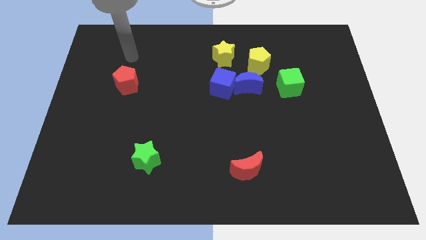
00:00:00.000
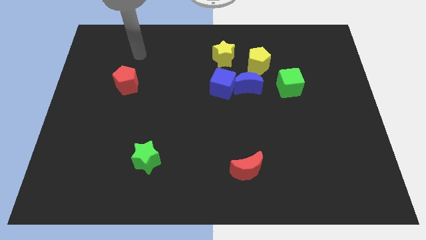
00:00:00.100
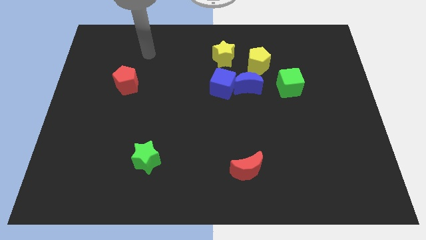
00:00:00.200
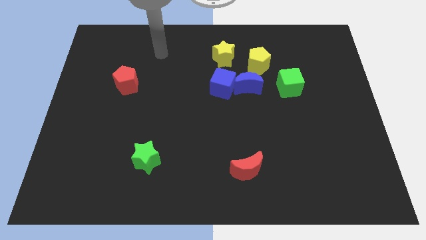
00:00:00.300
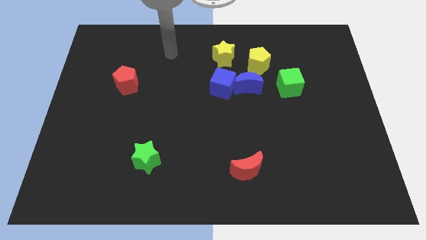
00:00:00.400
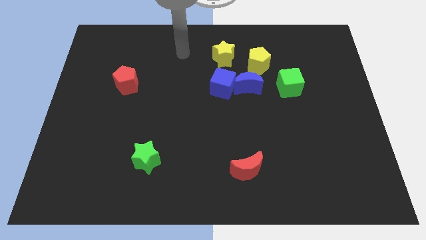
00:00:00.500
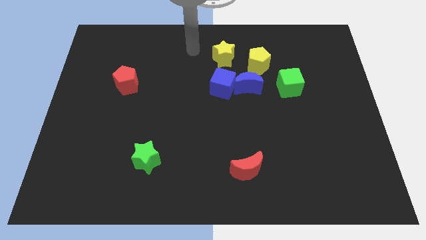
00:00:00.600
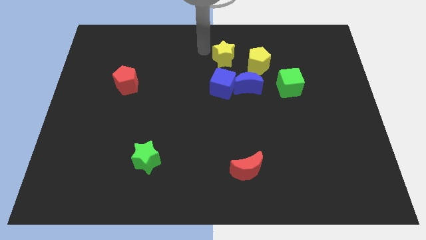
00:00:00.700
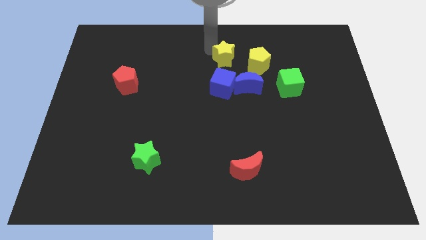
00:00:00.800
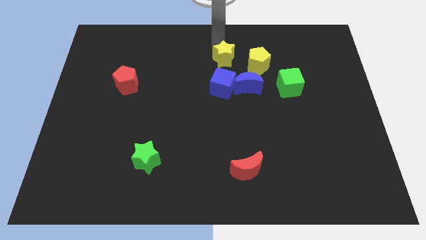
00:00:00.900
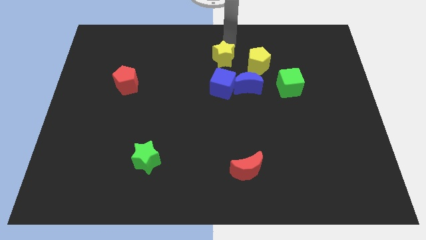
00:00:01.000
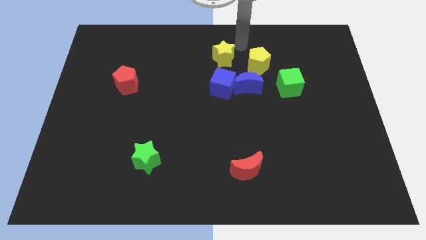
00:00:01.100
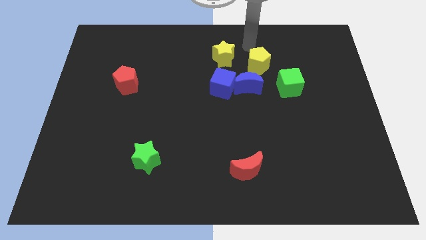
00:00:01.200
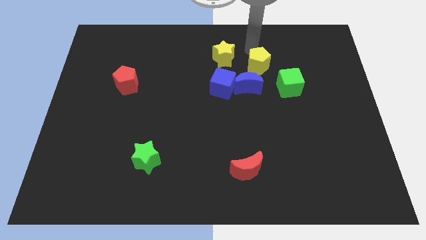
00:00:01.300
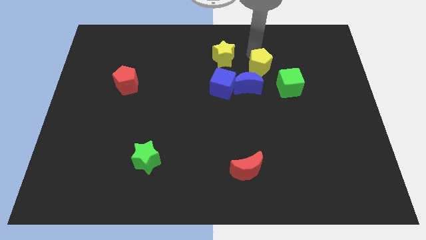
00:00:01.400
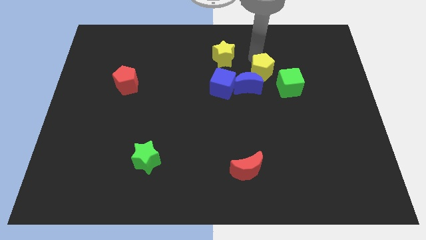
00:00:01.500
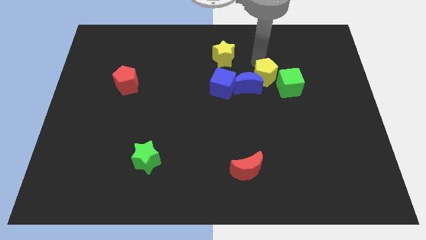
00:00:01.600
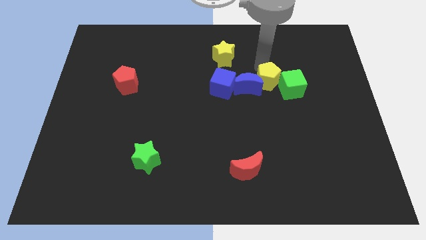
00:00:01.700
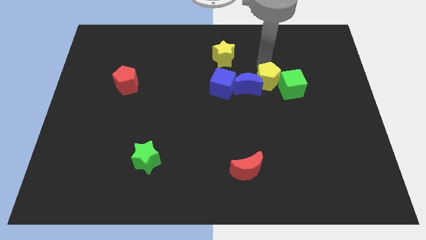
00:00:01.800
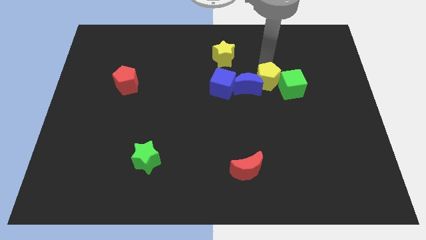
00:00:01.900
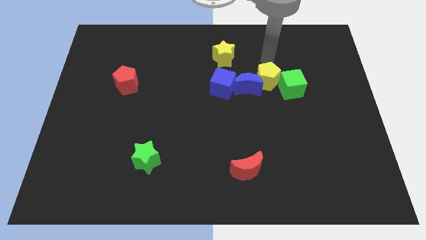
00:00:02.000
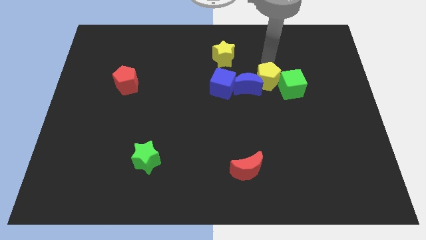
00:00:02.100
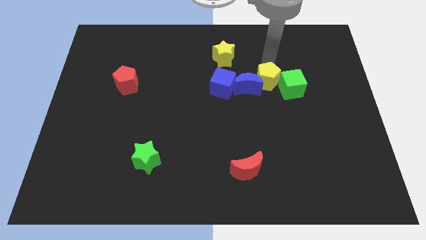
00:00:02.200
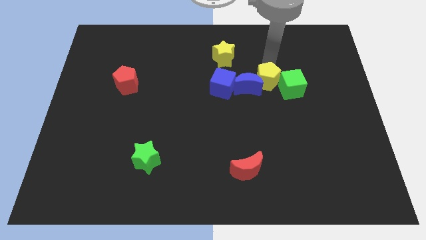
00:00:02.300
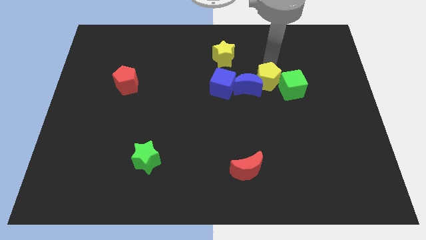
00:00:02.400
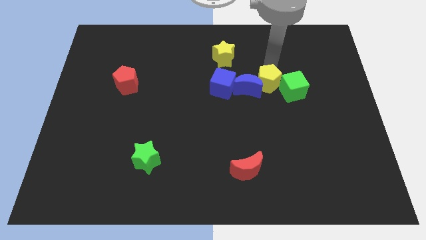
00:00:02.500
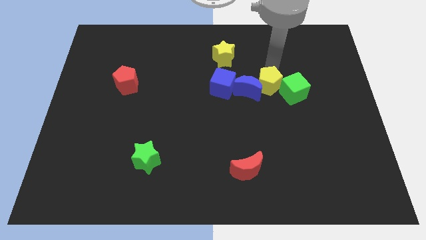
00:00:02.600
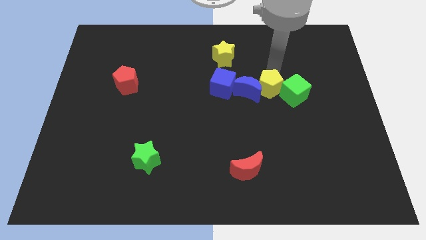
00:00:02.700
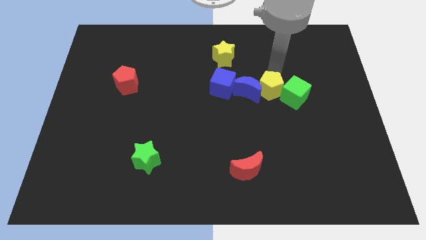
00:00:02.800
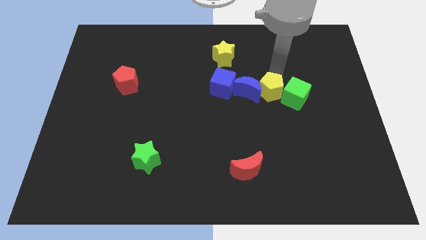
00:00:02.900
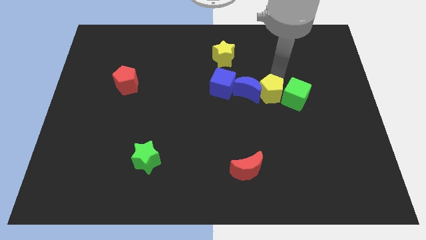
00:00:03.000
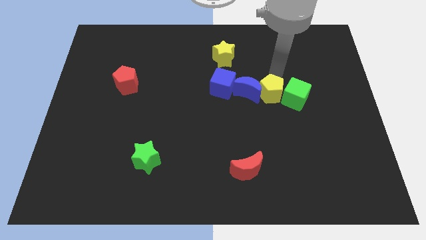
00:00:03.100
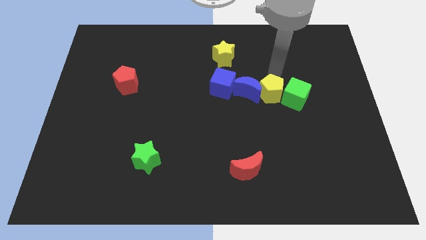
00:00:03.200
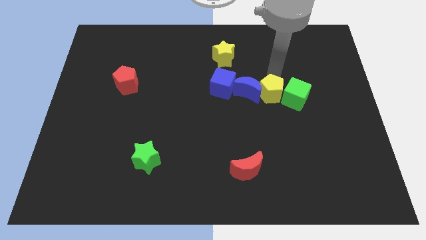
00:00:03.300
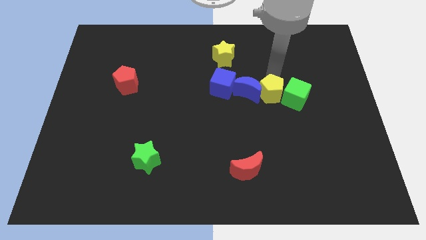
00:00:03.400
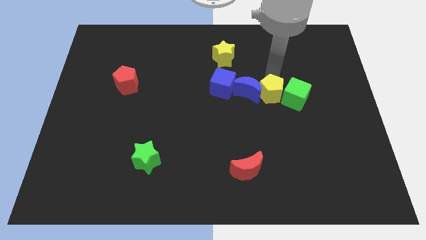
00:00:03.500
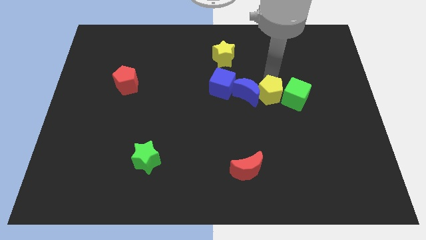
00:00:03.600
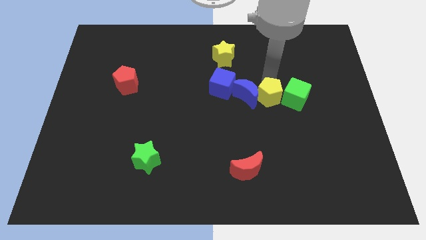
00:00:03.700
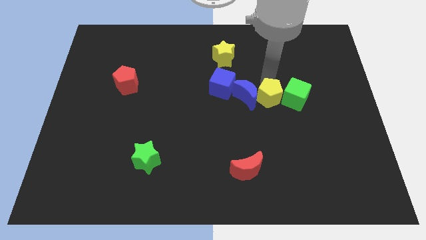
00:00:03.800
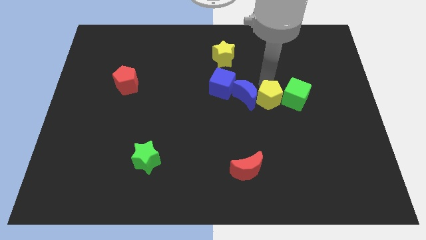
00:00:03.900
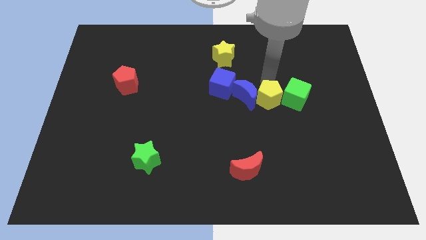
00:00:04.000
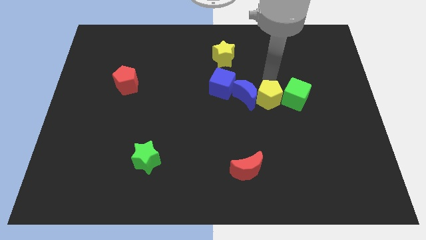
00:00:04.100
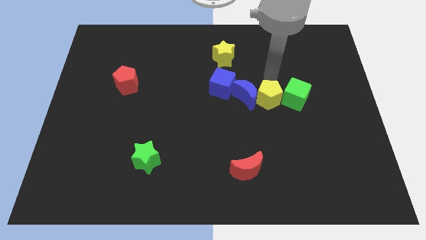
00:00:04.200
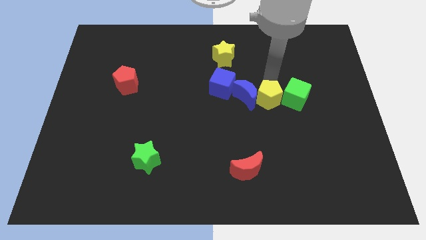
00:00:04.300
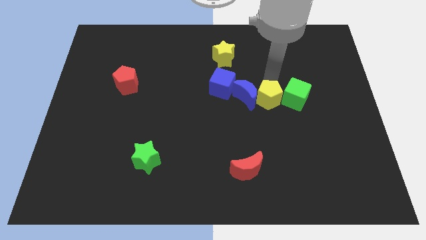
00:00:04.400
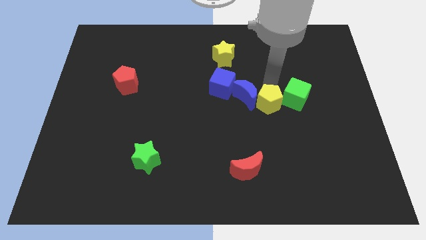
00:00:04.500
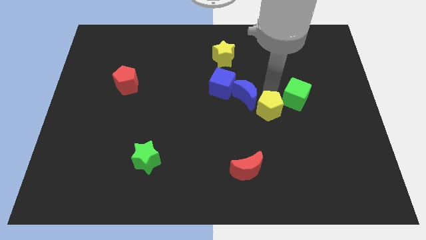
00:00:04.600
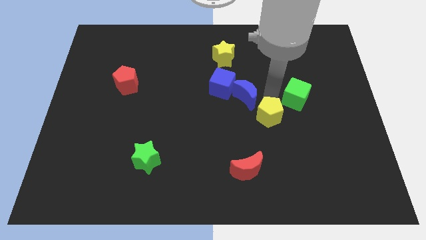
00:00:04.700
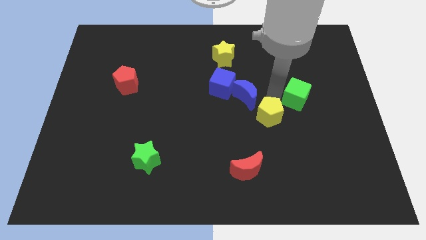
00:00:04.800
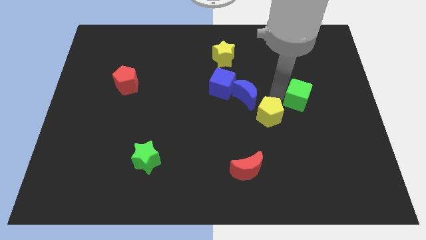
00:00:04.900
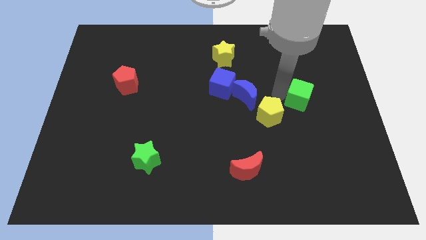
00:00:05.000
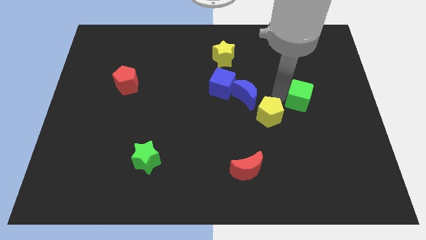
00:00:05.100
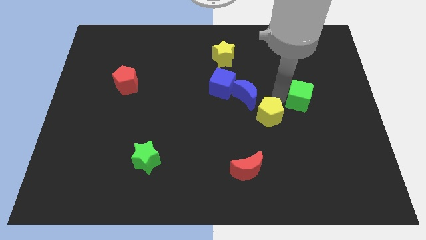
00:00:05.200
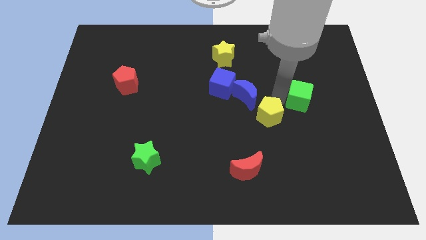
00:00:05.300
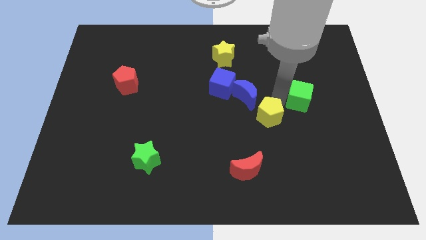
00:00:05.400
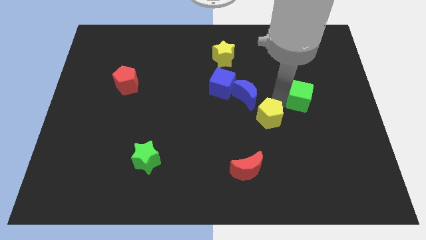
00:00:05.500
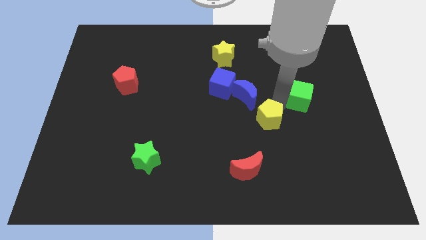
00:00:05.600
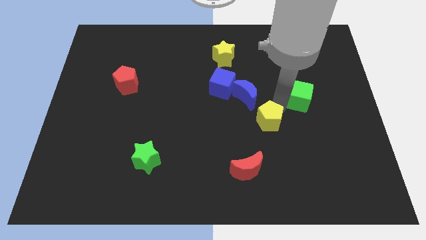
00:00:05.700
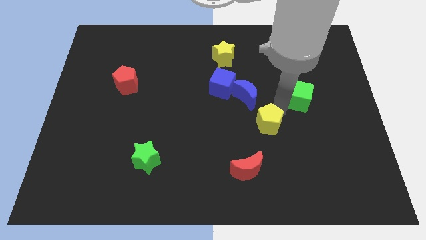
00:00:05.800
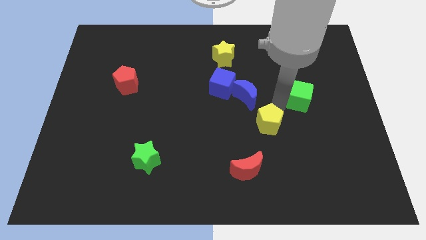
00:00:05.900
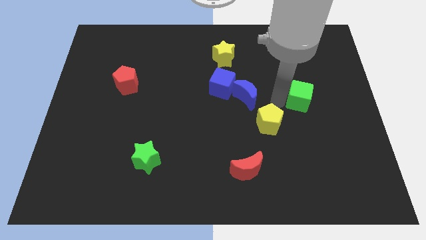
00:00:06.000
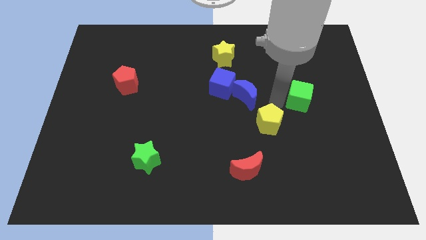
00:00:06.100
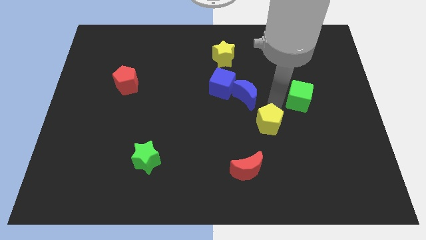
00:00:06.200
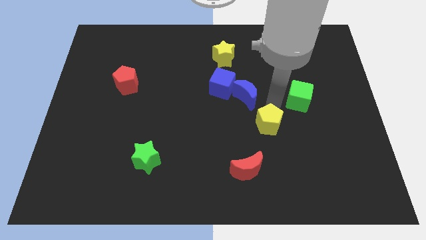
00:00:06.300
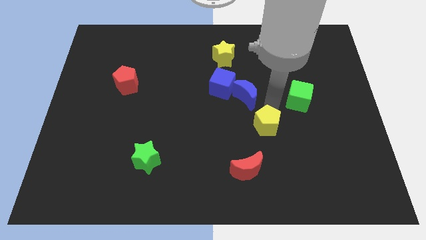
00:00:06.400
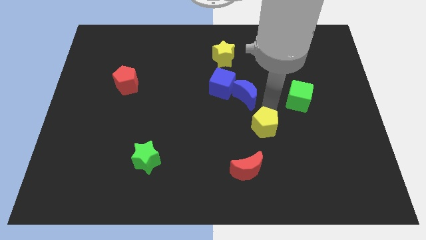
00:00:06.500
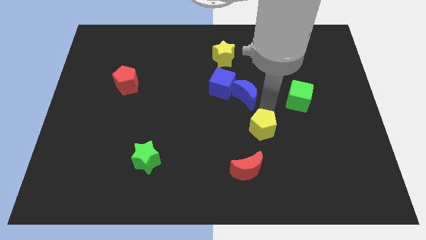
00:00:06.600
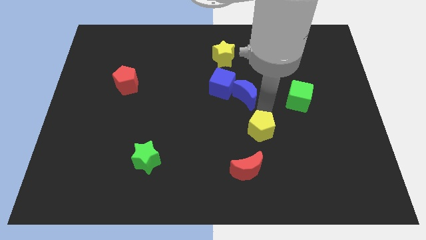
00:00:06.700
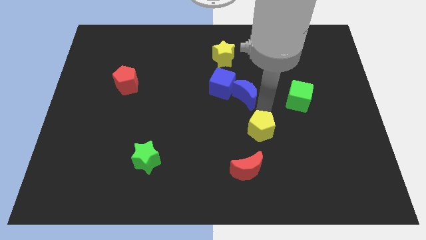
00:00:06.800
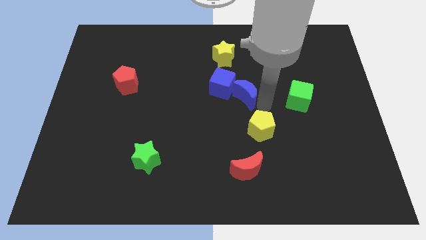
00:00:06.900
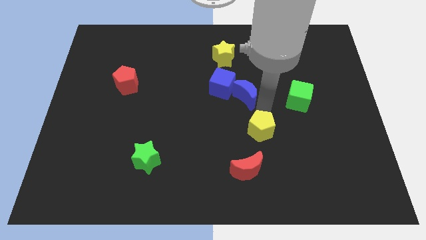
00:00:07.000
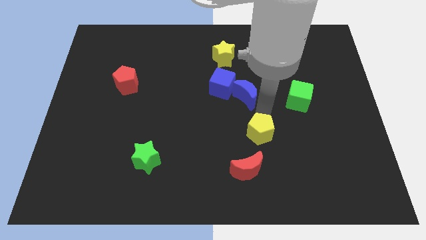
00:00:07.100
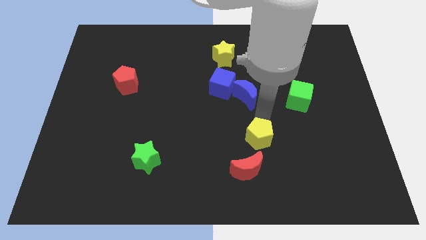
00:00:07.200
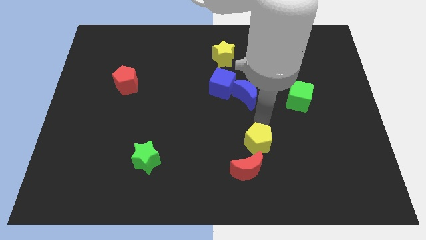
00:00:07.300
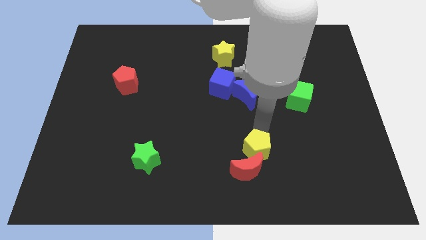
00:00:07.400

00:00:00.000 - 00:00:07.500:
slide the yellow pentagon to the red moon
